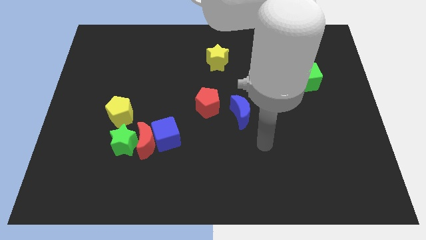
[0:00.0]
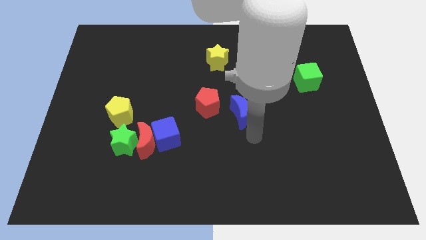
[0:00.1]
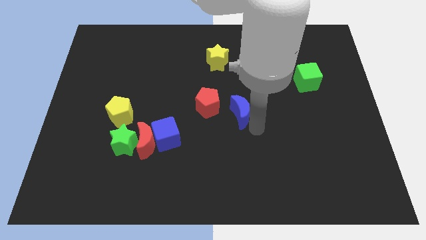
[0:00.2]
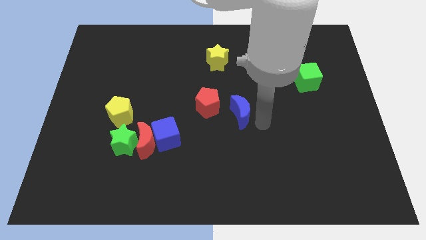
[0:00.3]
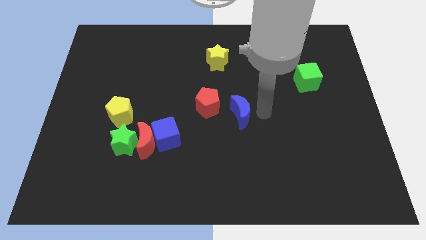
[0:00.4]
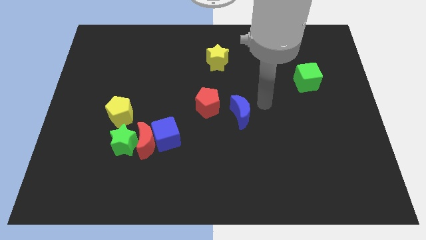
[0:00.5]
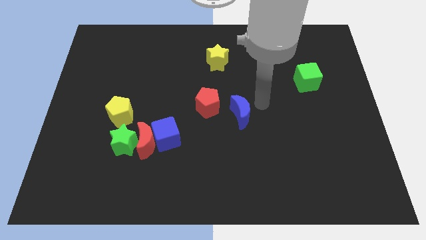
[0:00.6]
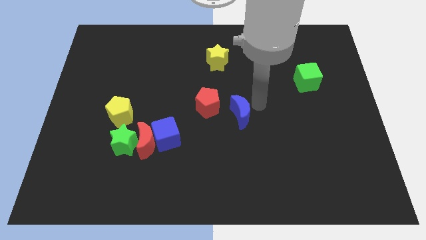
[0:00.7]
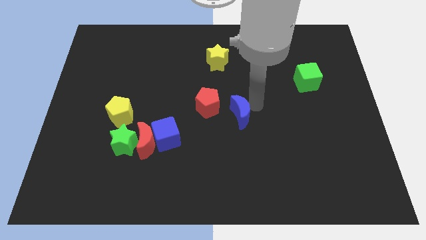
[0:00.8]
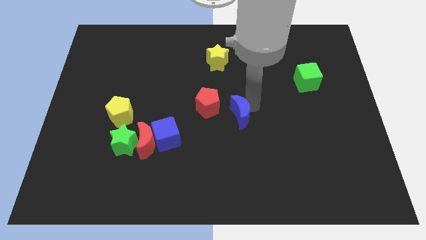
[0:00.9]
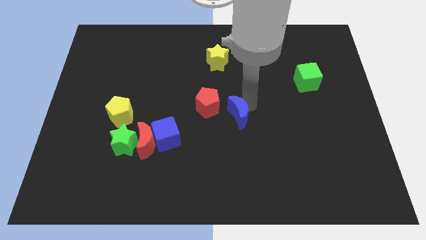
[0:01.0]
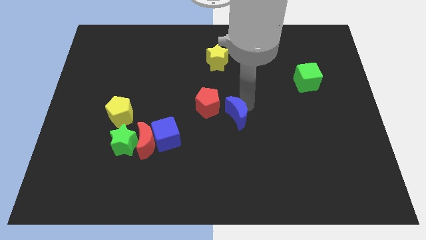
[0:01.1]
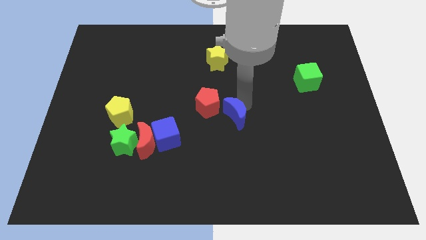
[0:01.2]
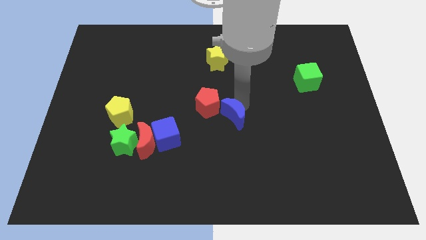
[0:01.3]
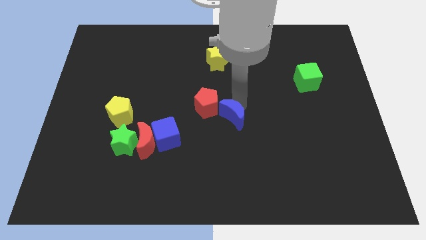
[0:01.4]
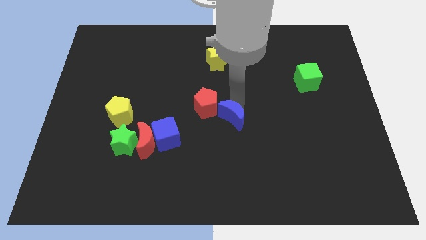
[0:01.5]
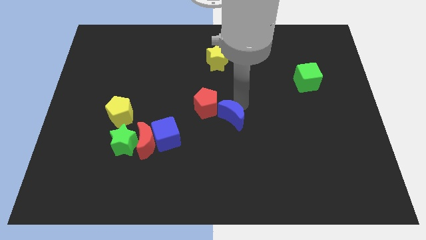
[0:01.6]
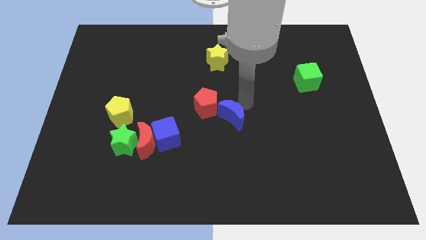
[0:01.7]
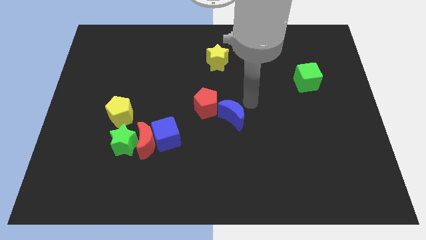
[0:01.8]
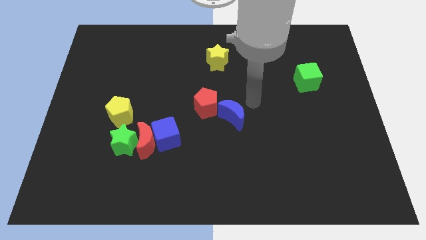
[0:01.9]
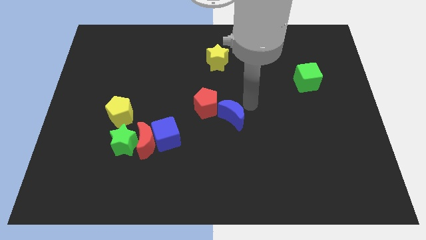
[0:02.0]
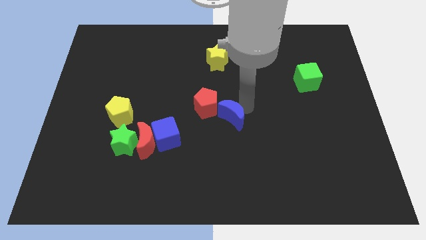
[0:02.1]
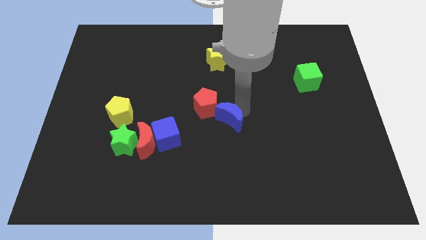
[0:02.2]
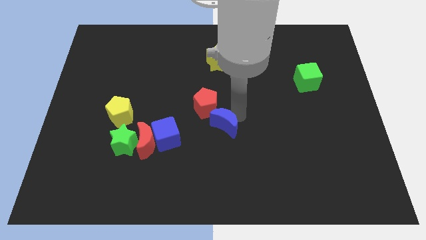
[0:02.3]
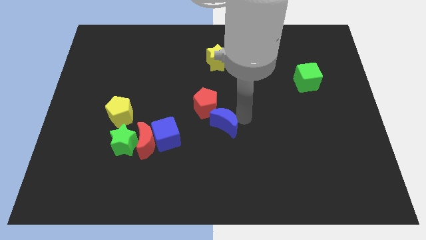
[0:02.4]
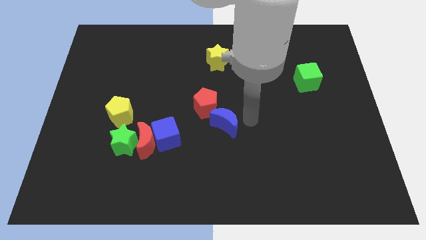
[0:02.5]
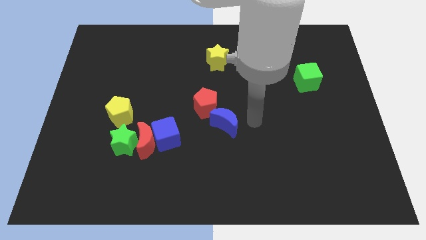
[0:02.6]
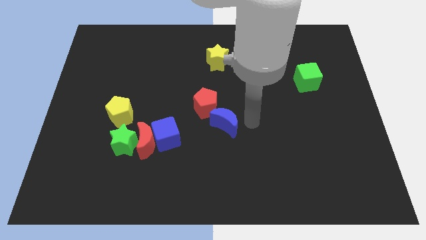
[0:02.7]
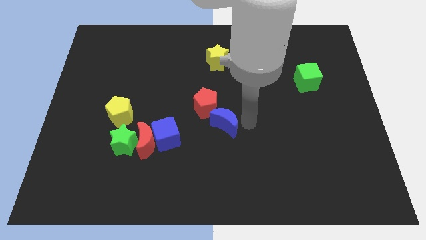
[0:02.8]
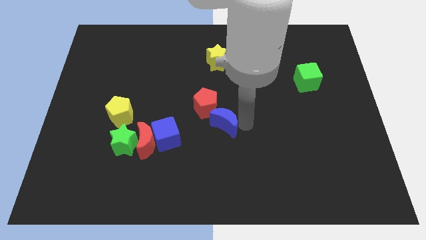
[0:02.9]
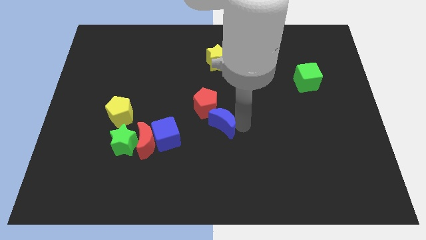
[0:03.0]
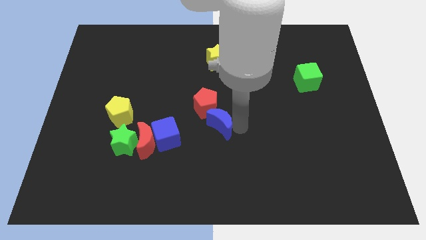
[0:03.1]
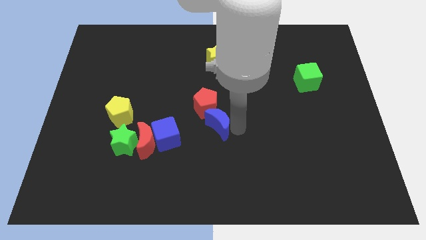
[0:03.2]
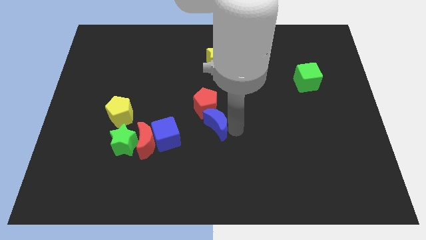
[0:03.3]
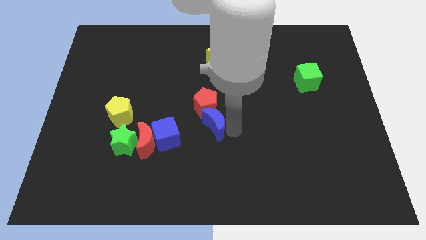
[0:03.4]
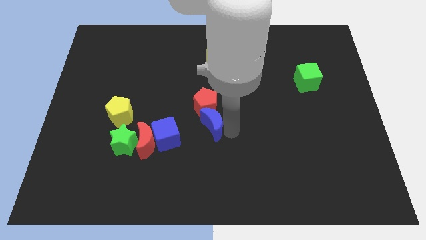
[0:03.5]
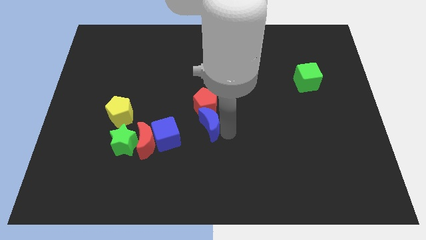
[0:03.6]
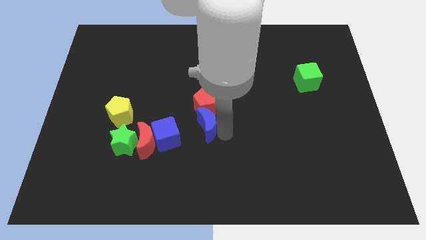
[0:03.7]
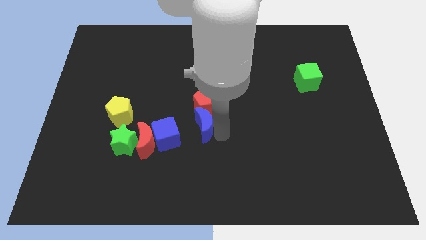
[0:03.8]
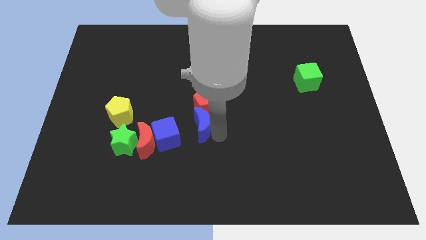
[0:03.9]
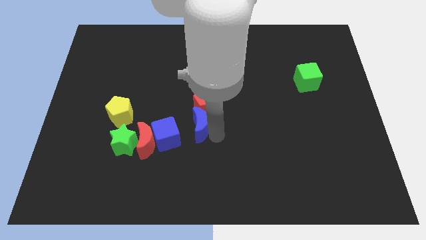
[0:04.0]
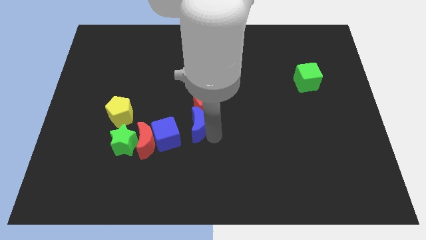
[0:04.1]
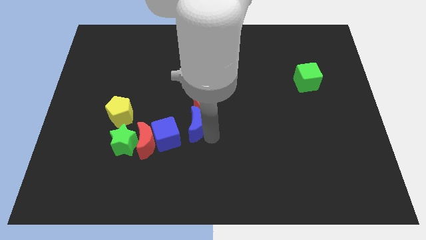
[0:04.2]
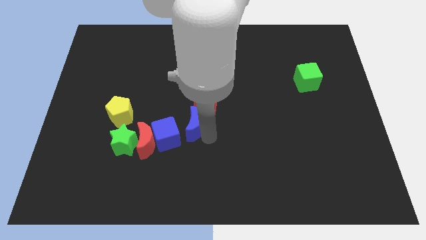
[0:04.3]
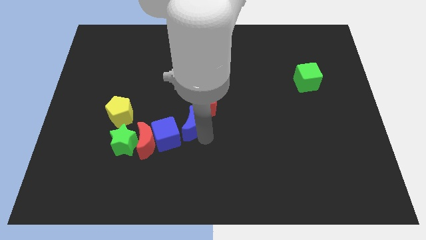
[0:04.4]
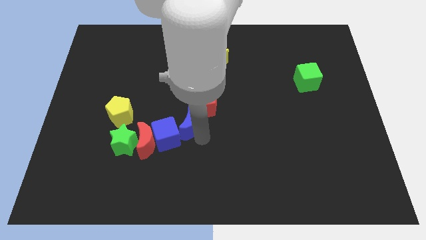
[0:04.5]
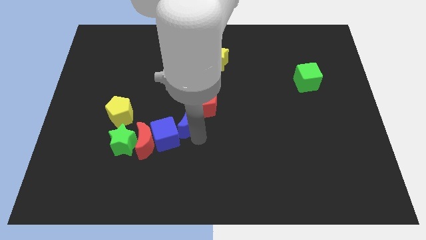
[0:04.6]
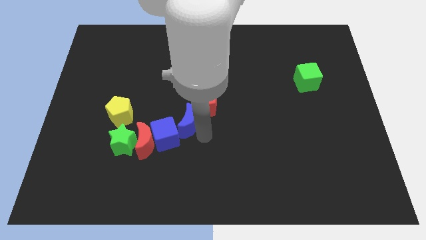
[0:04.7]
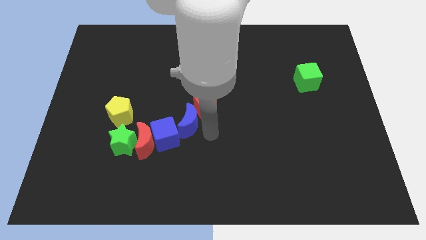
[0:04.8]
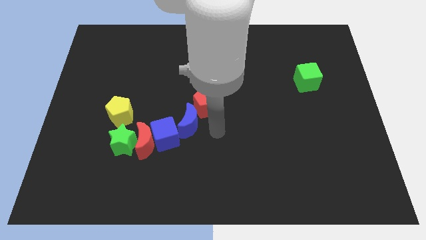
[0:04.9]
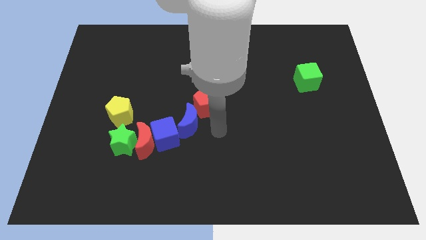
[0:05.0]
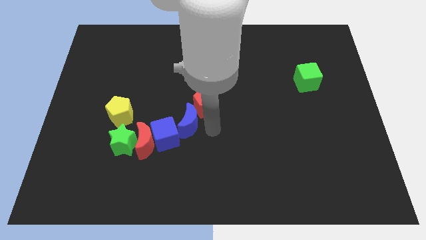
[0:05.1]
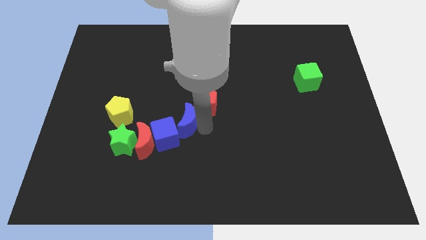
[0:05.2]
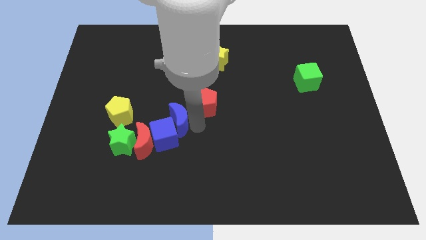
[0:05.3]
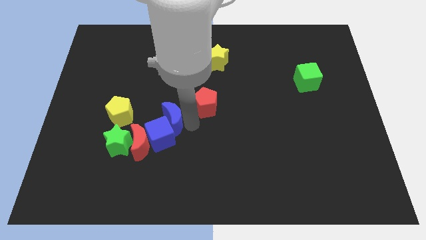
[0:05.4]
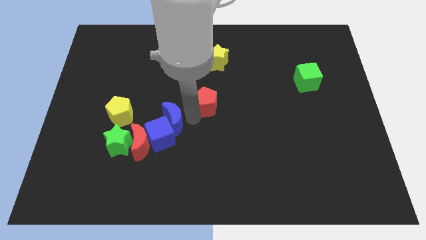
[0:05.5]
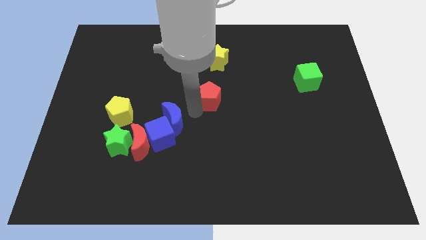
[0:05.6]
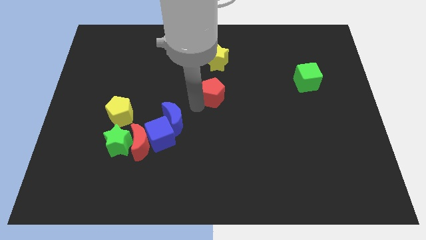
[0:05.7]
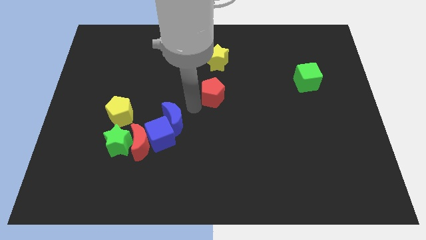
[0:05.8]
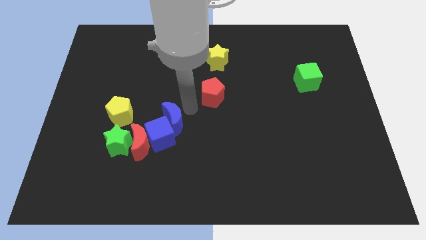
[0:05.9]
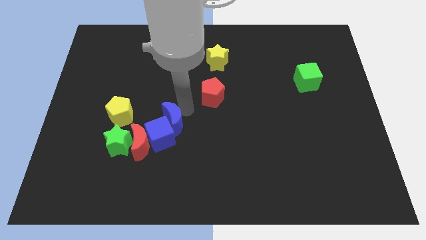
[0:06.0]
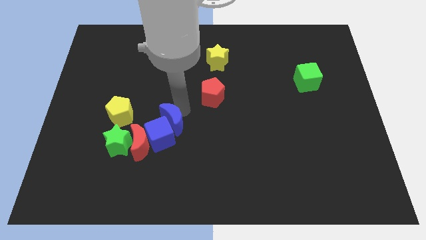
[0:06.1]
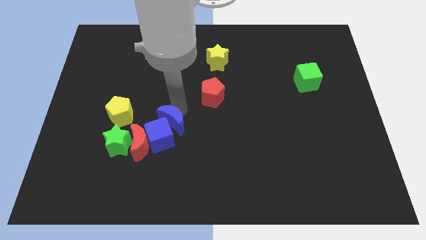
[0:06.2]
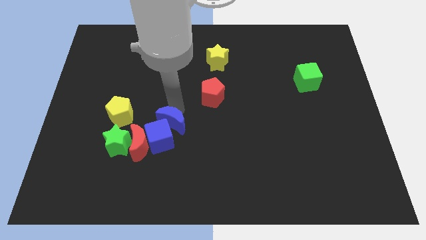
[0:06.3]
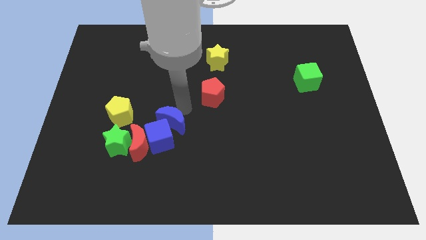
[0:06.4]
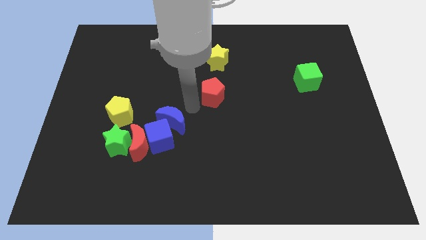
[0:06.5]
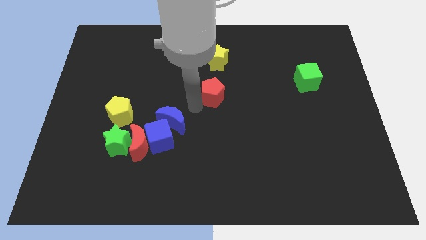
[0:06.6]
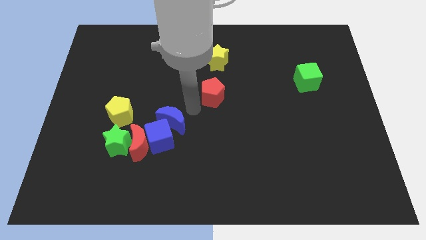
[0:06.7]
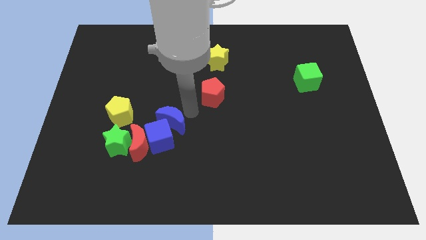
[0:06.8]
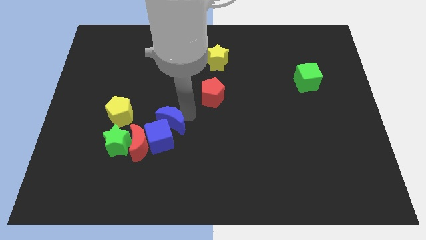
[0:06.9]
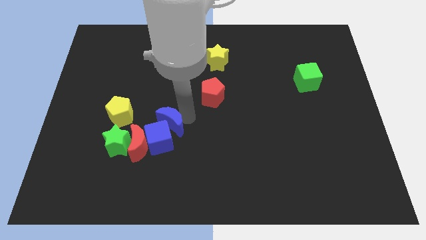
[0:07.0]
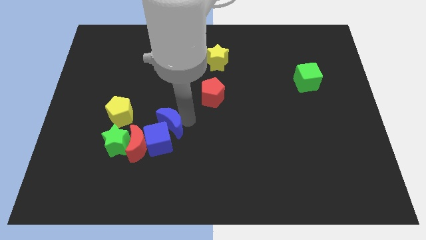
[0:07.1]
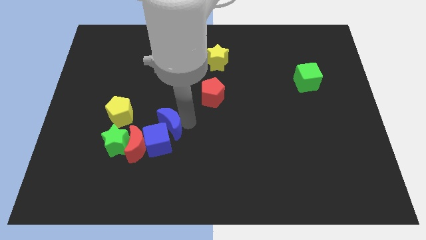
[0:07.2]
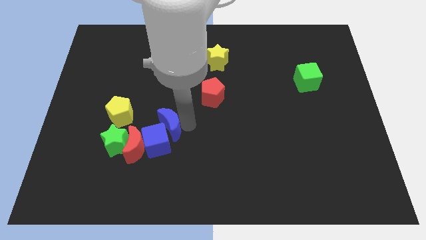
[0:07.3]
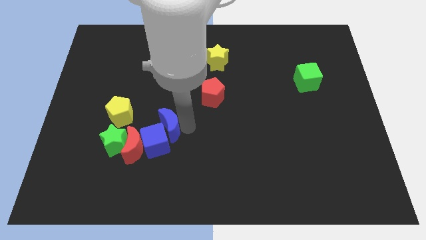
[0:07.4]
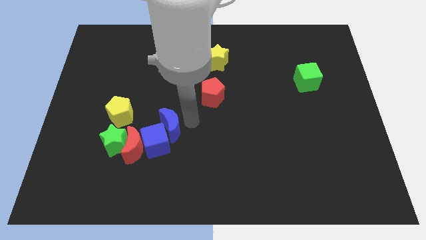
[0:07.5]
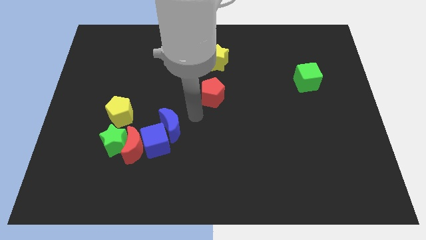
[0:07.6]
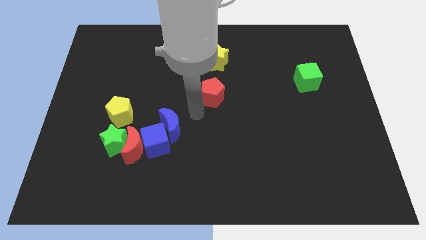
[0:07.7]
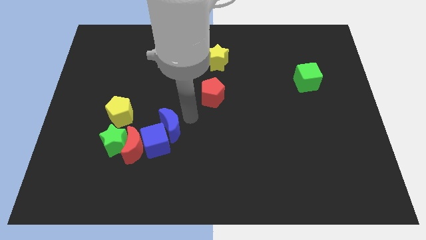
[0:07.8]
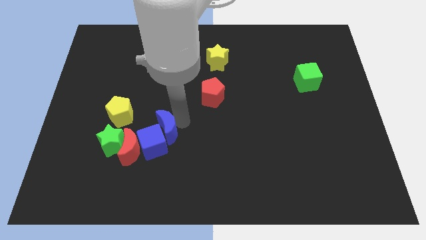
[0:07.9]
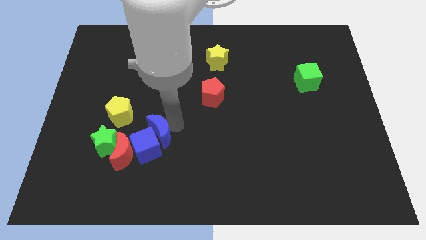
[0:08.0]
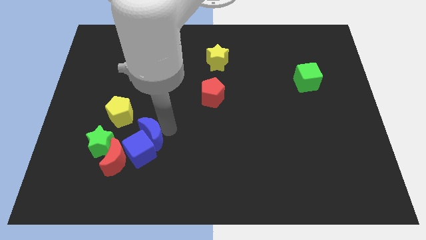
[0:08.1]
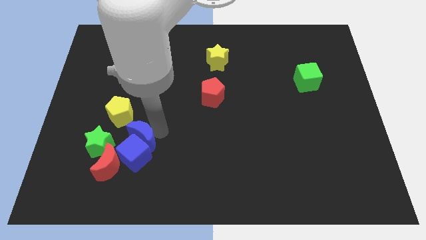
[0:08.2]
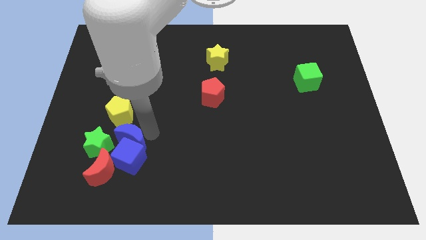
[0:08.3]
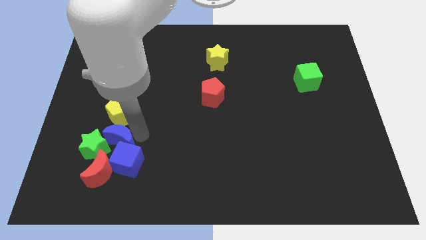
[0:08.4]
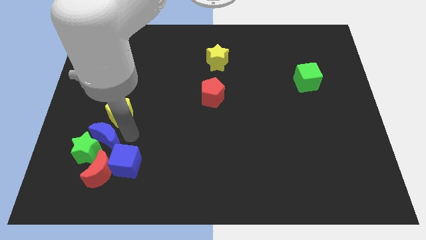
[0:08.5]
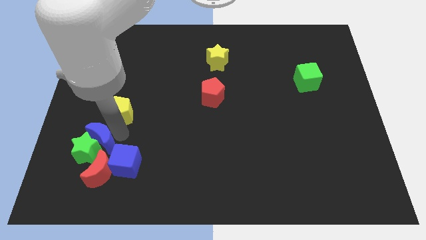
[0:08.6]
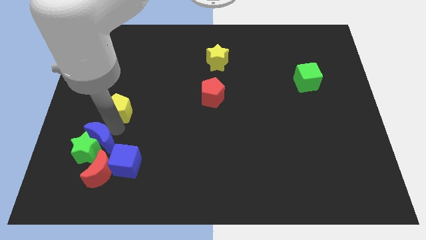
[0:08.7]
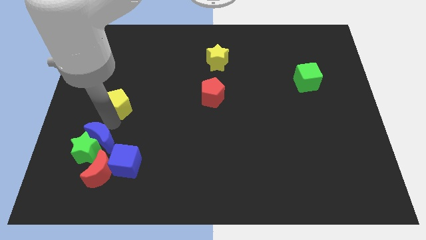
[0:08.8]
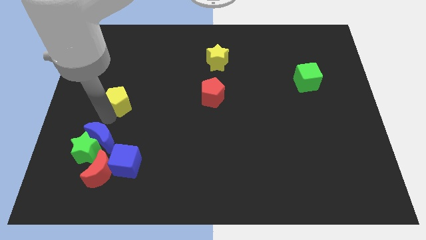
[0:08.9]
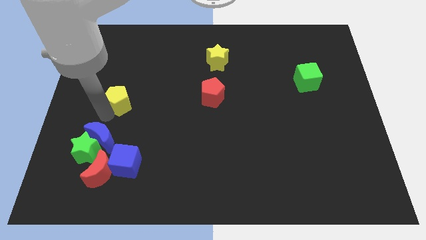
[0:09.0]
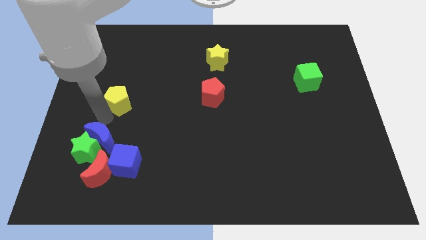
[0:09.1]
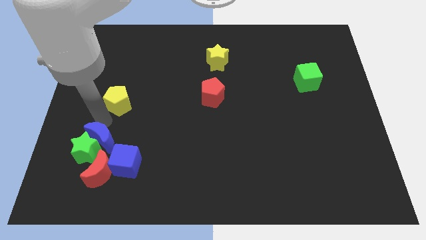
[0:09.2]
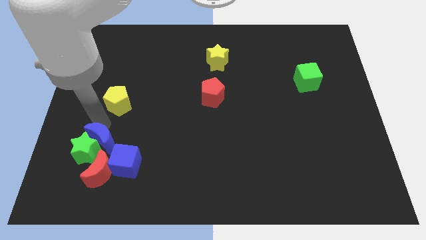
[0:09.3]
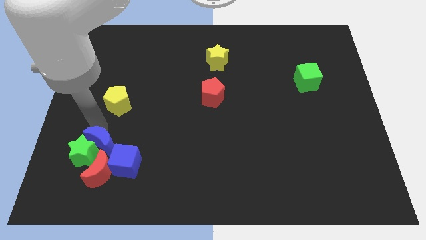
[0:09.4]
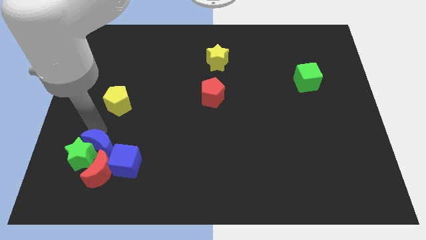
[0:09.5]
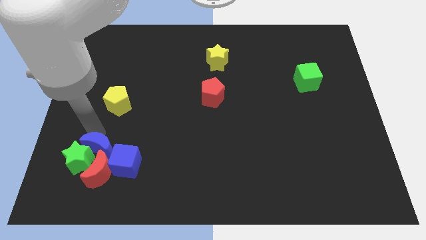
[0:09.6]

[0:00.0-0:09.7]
push the blue moon towards the red moon
